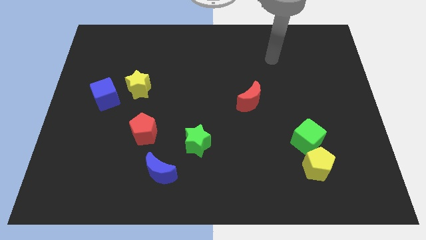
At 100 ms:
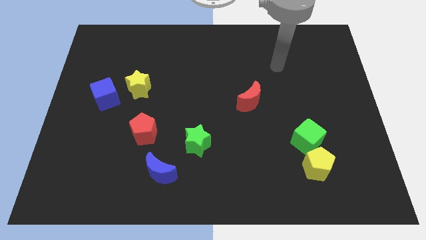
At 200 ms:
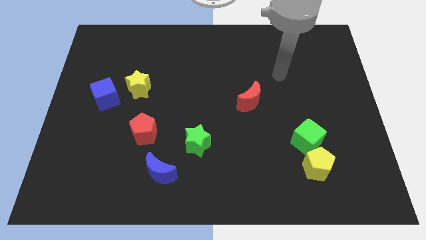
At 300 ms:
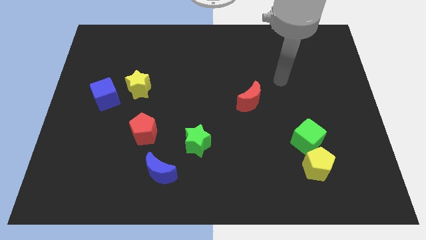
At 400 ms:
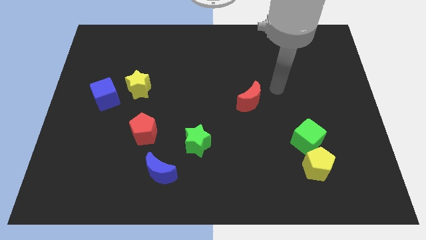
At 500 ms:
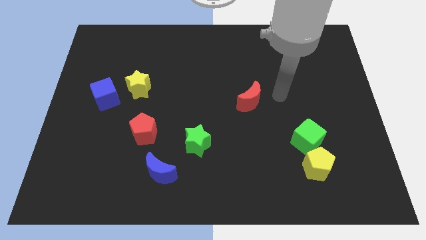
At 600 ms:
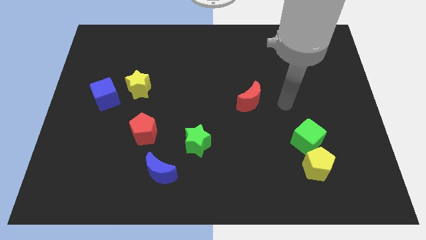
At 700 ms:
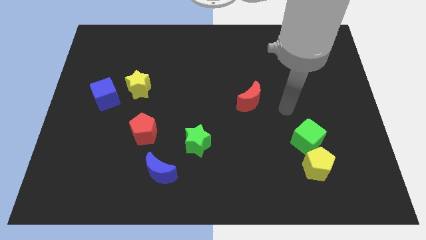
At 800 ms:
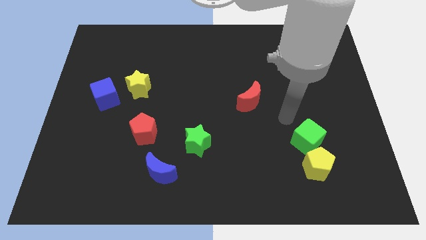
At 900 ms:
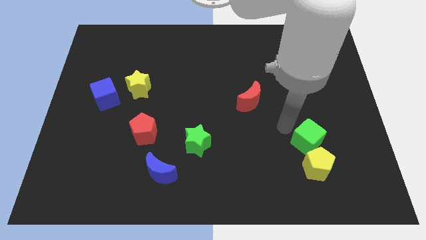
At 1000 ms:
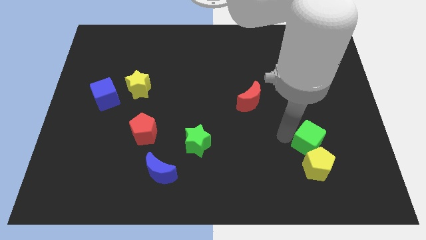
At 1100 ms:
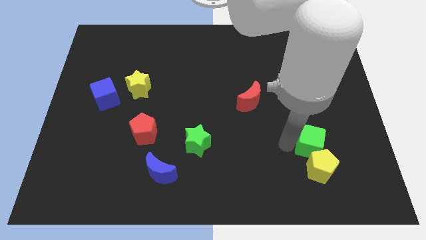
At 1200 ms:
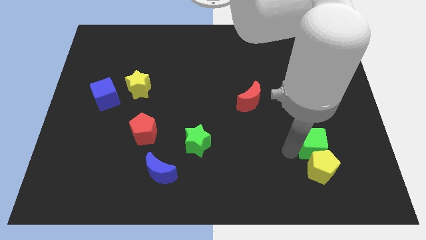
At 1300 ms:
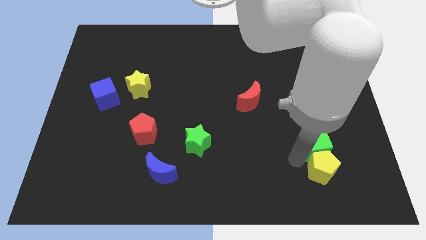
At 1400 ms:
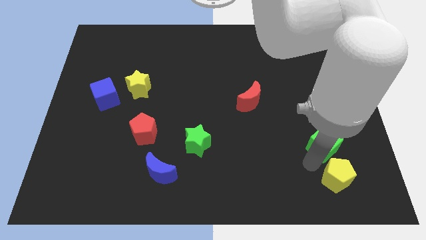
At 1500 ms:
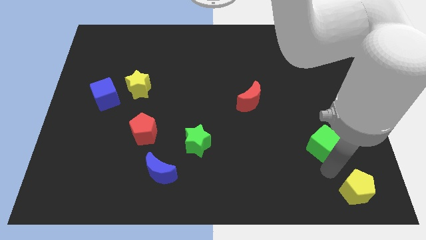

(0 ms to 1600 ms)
pull the green cube apart from the yellow pentagon

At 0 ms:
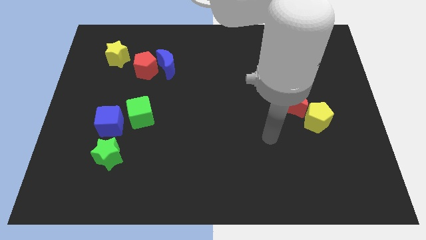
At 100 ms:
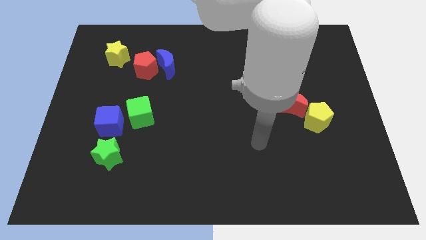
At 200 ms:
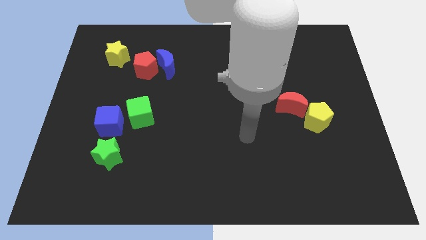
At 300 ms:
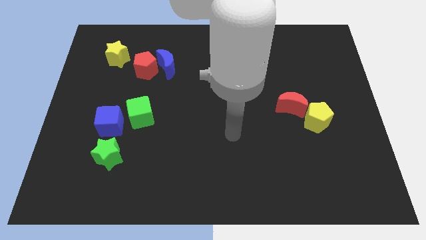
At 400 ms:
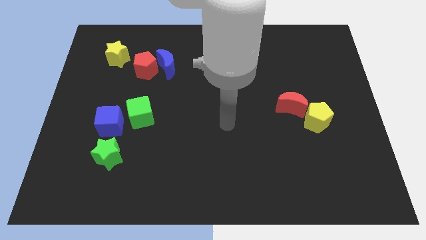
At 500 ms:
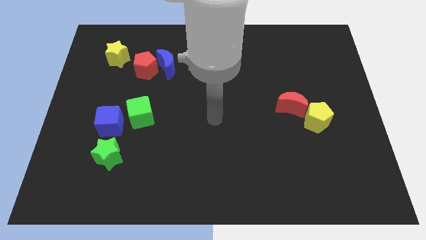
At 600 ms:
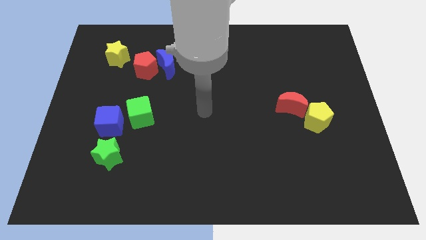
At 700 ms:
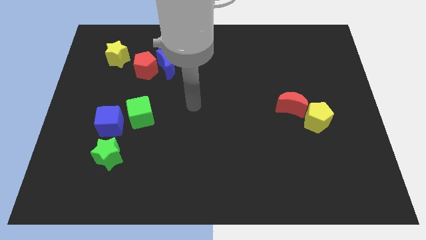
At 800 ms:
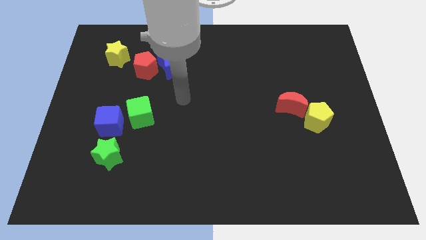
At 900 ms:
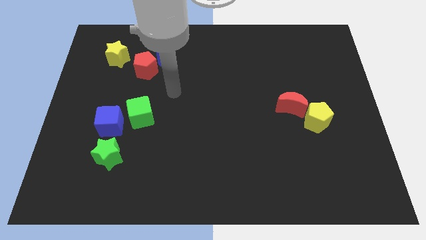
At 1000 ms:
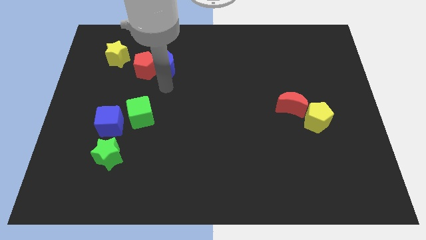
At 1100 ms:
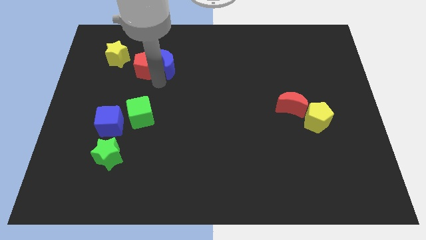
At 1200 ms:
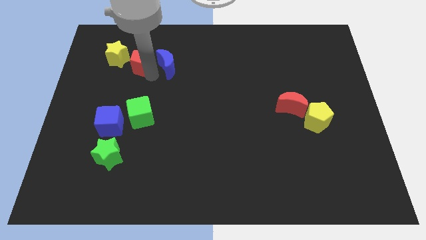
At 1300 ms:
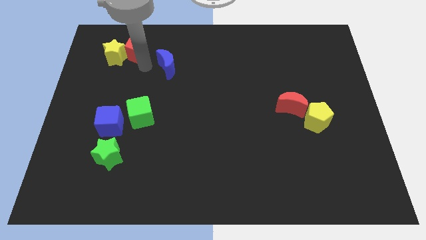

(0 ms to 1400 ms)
separate the blue moon from the red pentagon

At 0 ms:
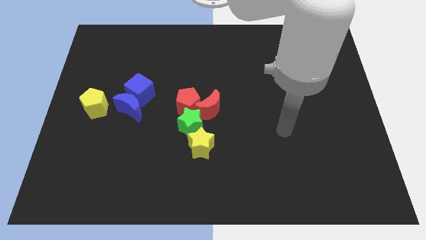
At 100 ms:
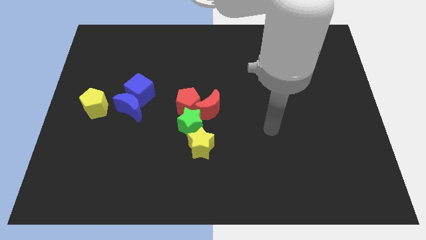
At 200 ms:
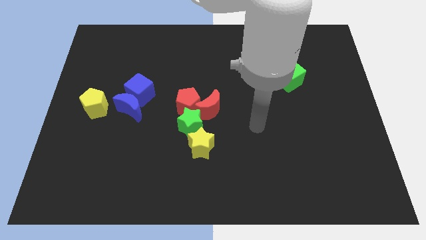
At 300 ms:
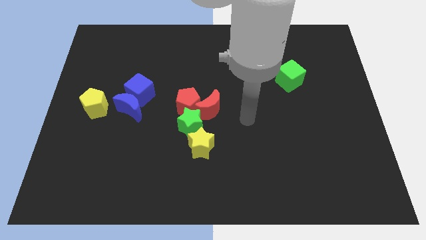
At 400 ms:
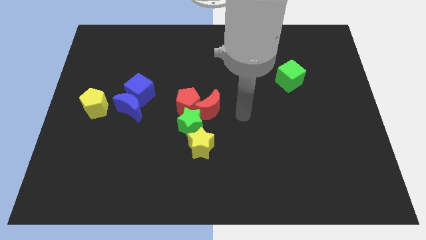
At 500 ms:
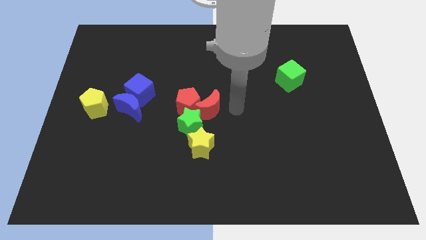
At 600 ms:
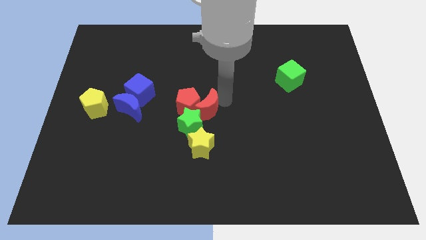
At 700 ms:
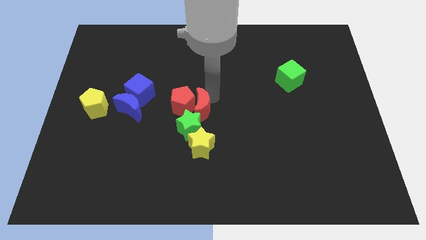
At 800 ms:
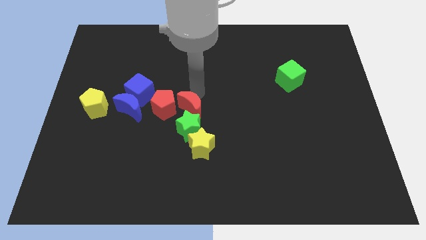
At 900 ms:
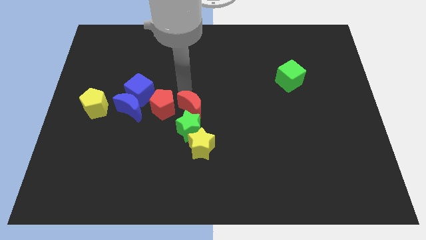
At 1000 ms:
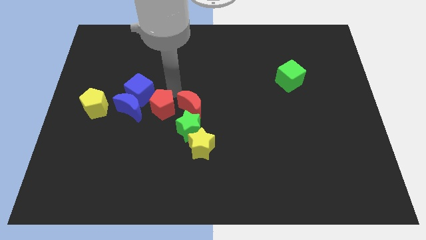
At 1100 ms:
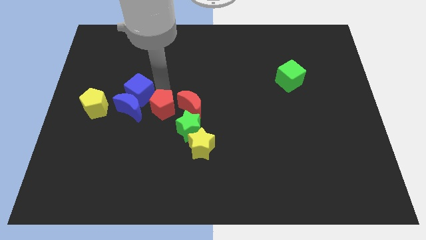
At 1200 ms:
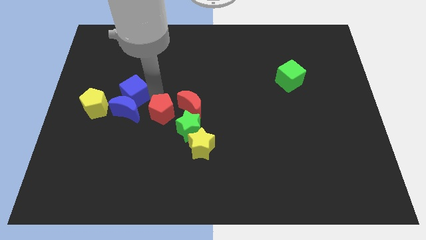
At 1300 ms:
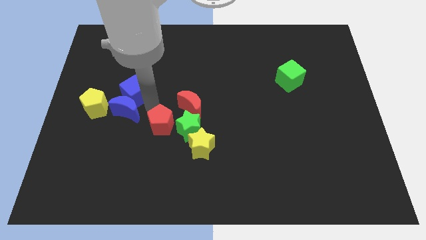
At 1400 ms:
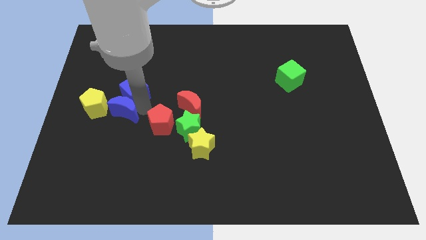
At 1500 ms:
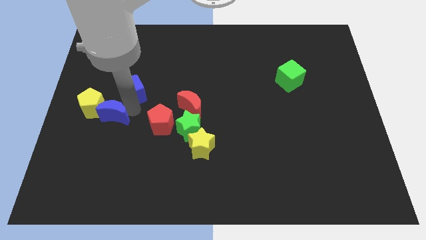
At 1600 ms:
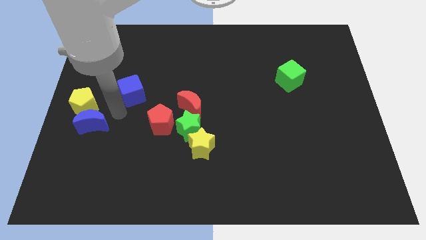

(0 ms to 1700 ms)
separate the blue cube from the blue moon

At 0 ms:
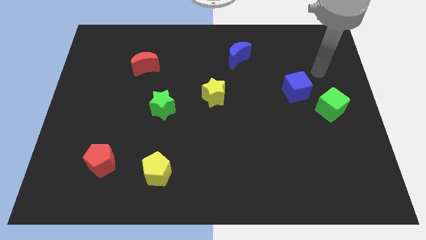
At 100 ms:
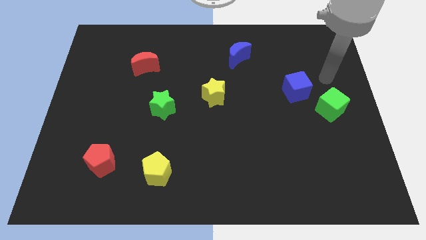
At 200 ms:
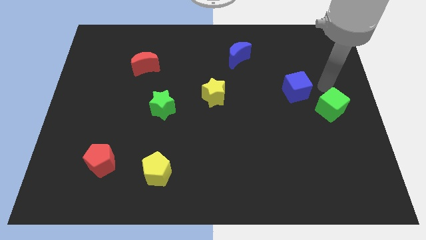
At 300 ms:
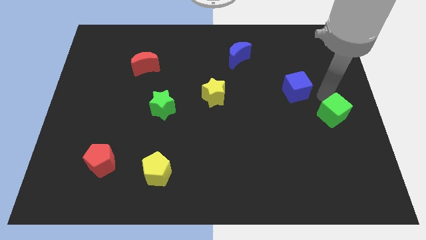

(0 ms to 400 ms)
move the blue cube away from the green cube

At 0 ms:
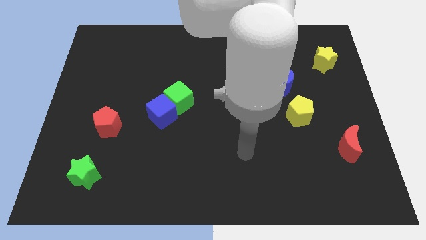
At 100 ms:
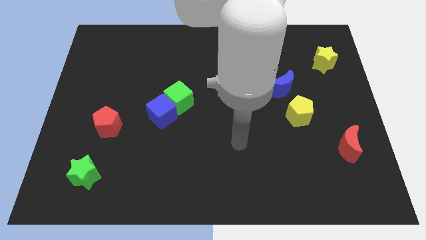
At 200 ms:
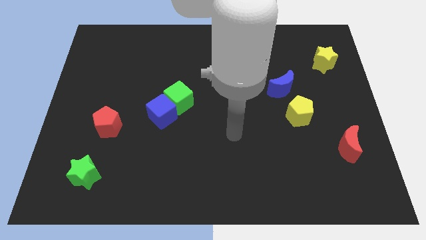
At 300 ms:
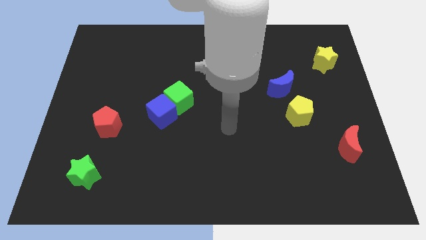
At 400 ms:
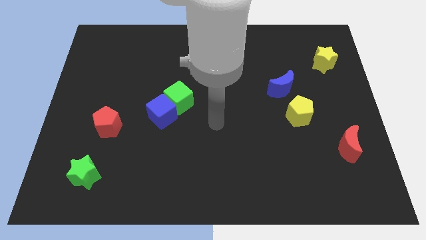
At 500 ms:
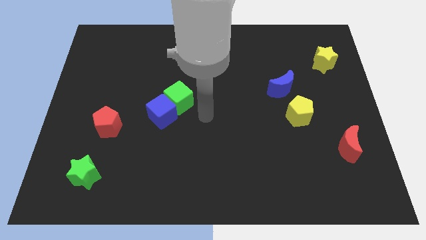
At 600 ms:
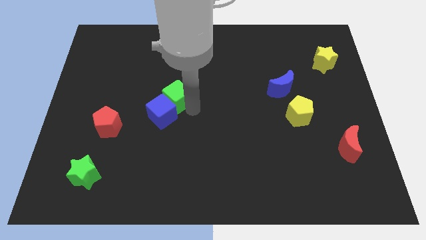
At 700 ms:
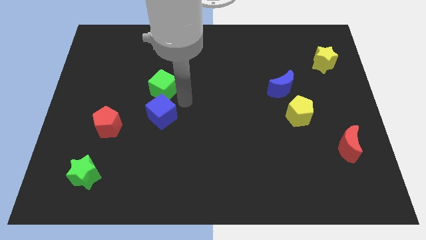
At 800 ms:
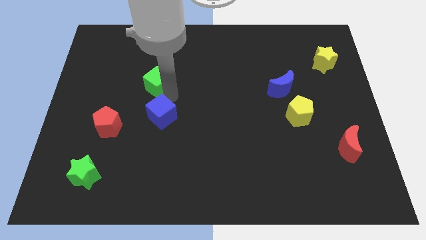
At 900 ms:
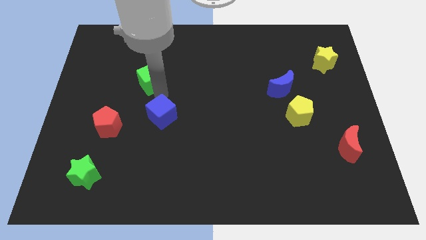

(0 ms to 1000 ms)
pull the blue cube apart from the green cube

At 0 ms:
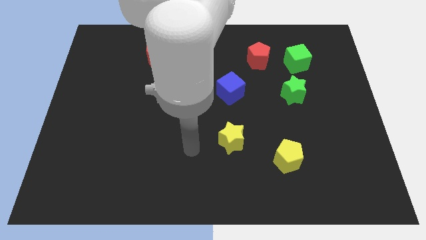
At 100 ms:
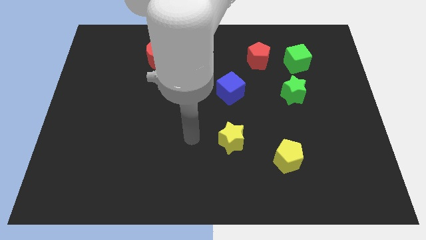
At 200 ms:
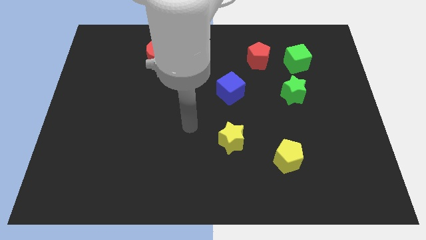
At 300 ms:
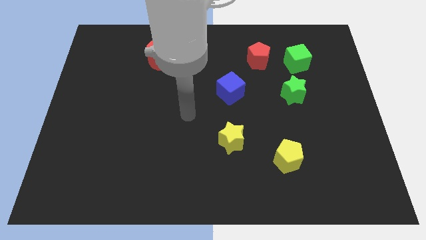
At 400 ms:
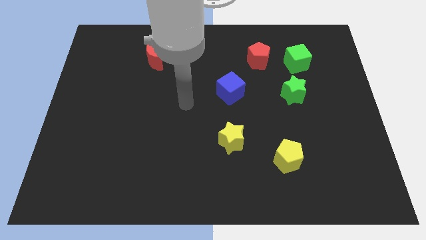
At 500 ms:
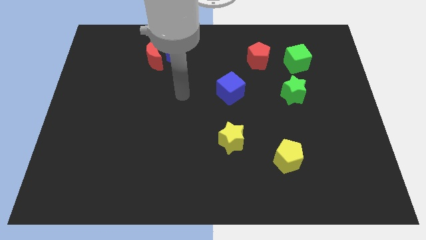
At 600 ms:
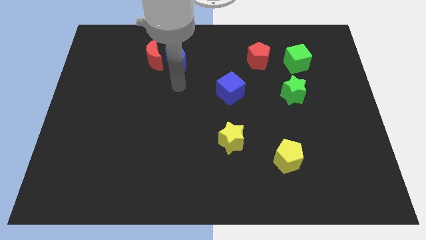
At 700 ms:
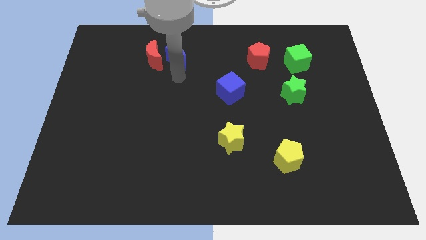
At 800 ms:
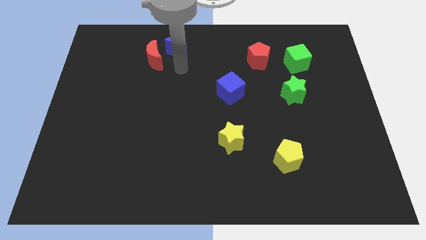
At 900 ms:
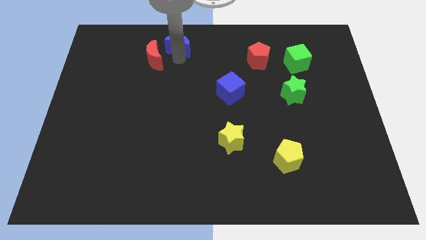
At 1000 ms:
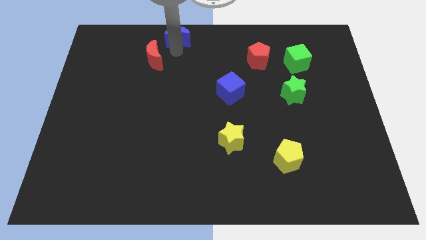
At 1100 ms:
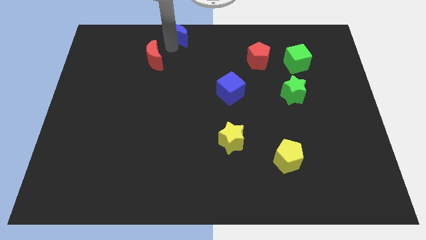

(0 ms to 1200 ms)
separate the red moon from the blue moon

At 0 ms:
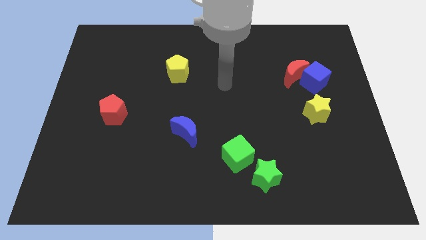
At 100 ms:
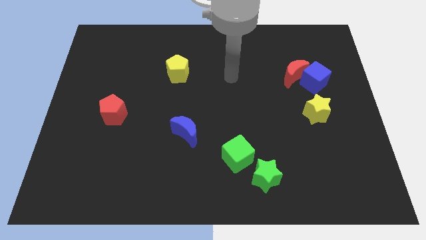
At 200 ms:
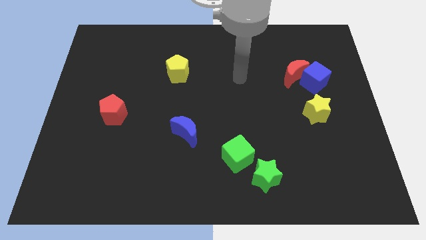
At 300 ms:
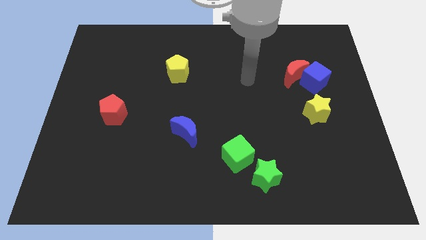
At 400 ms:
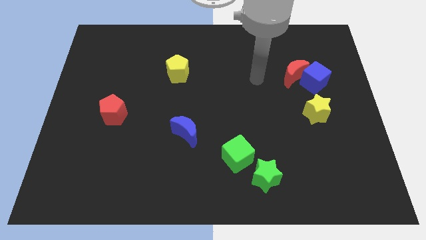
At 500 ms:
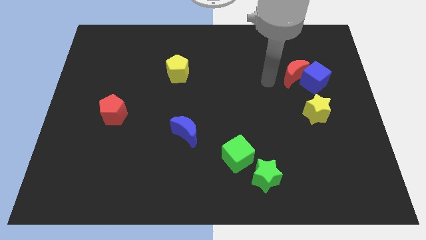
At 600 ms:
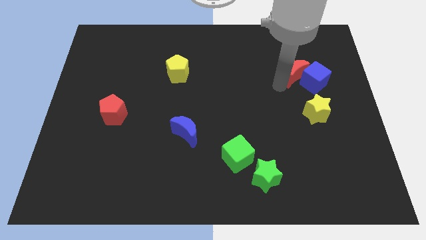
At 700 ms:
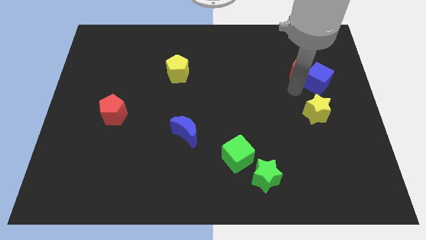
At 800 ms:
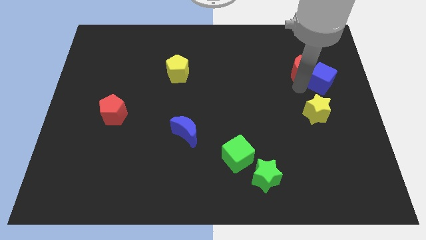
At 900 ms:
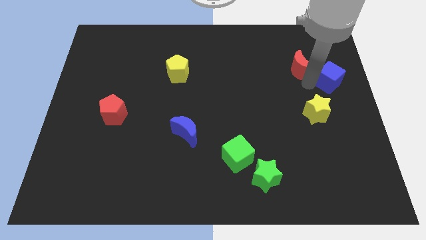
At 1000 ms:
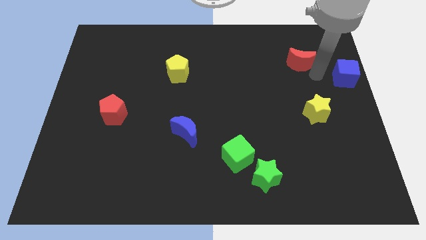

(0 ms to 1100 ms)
separate the red moon from the blue cube

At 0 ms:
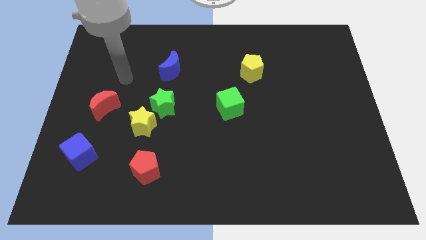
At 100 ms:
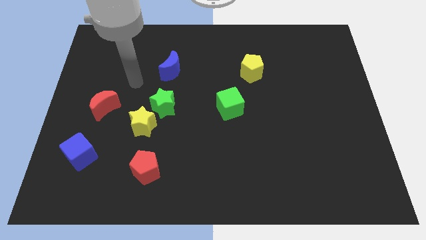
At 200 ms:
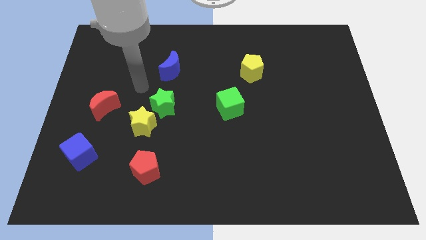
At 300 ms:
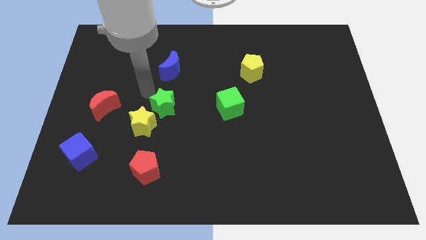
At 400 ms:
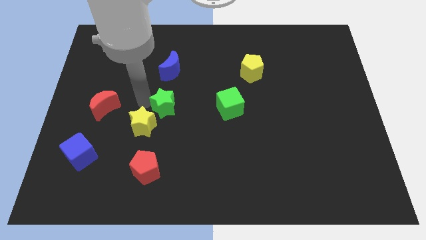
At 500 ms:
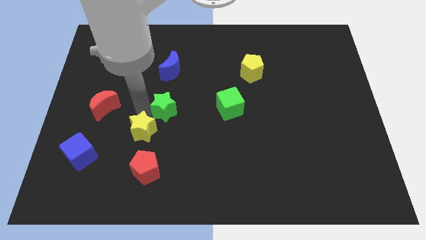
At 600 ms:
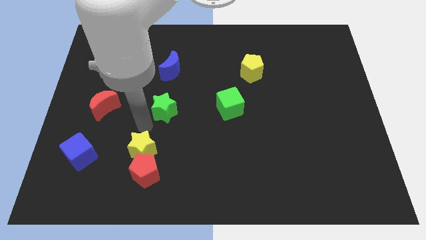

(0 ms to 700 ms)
separate the green star from the yellow star

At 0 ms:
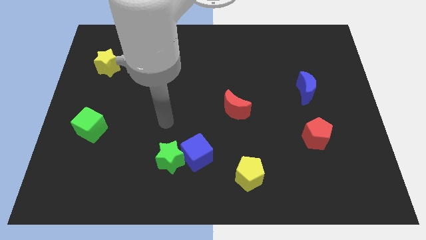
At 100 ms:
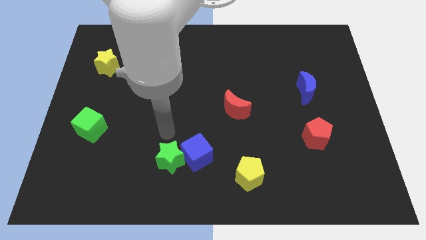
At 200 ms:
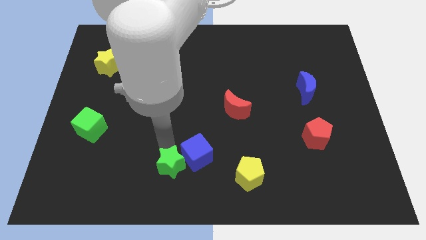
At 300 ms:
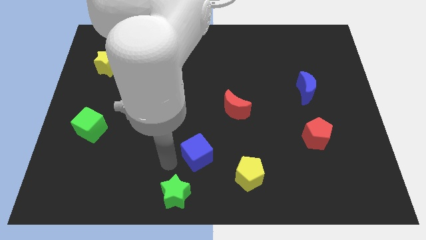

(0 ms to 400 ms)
move the blue cube away from the green star

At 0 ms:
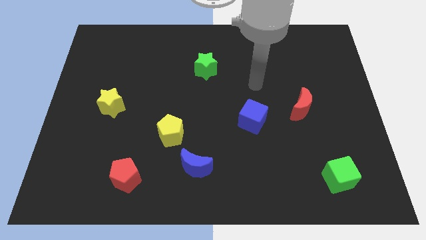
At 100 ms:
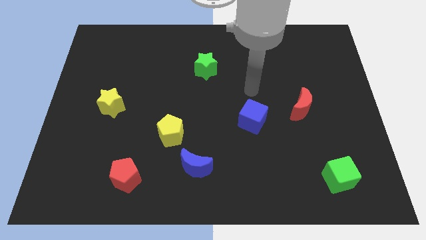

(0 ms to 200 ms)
separate the blue moon from the yellow pentagon
